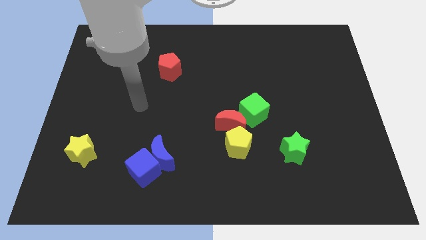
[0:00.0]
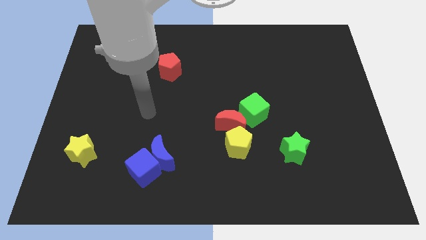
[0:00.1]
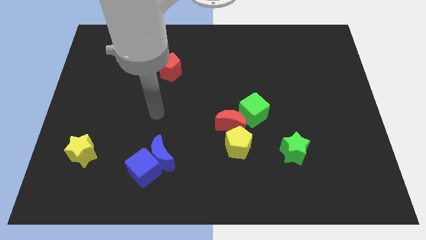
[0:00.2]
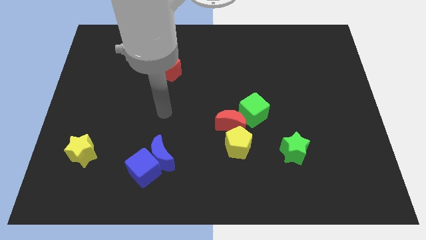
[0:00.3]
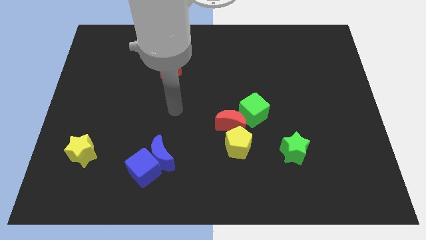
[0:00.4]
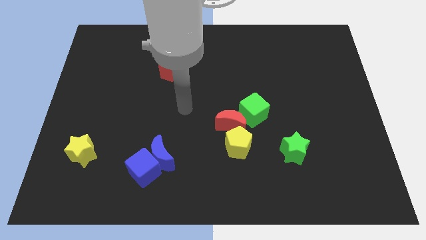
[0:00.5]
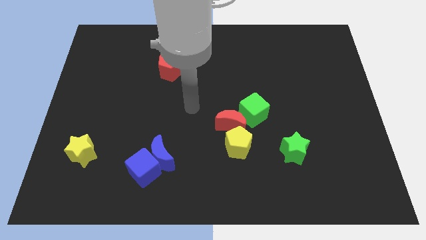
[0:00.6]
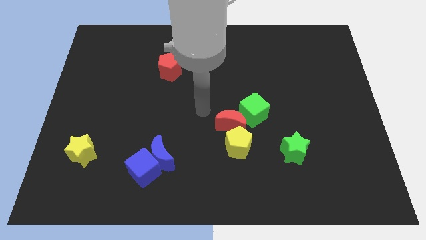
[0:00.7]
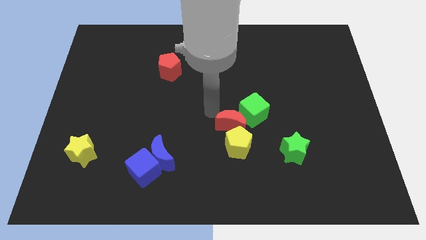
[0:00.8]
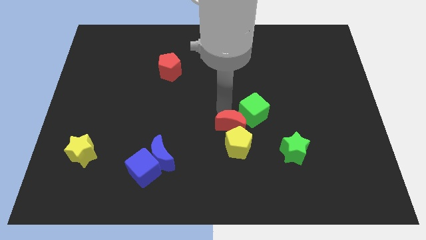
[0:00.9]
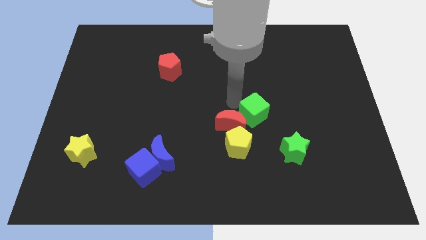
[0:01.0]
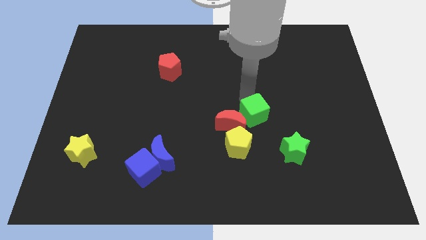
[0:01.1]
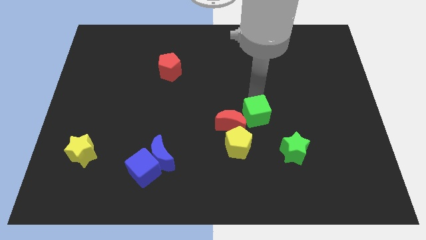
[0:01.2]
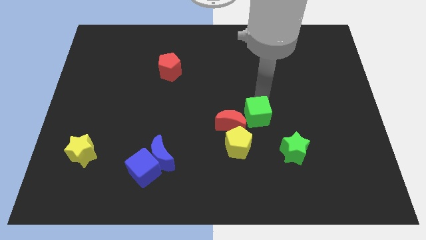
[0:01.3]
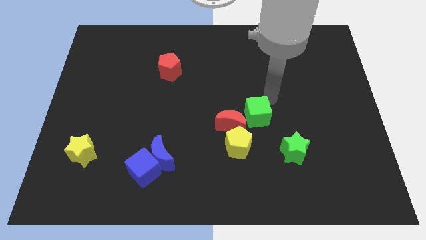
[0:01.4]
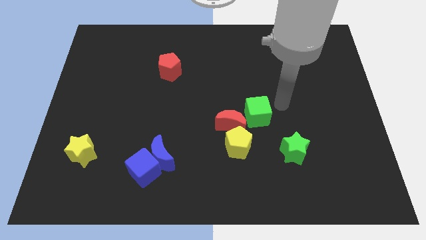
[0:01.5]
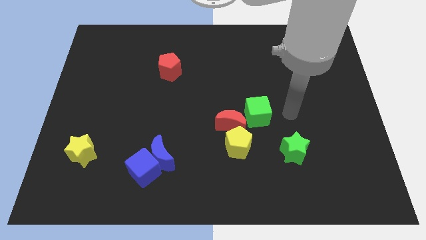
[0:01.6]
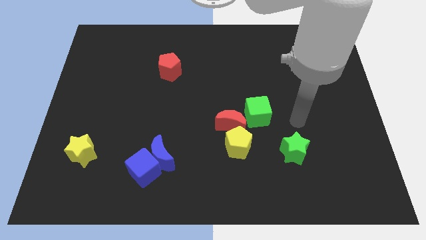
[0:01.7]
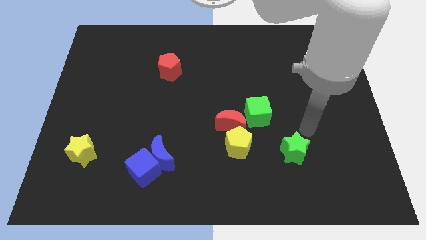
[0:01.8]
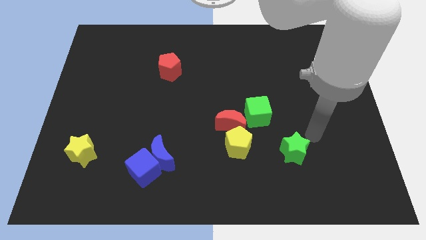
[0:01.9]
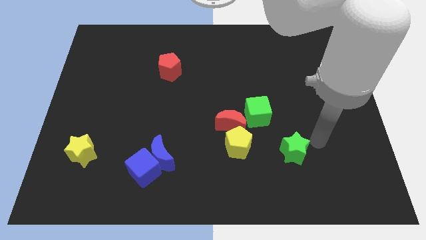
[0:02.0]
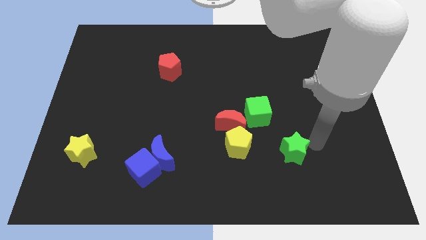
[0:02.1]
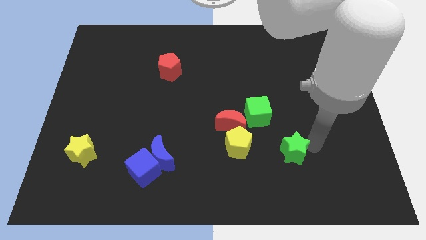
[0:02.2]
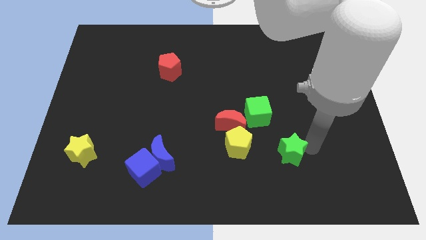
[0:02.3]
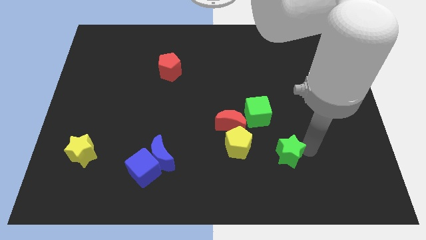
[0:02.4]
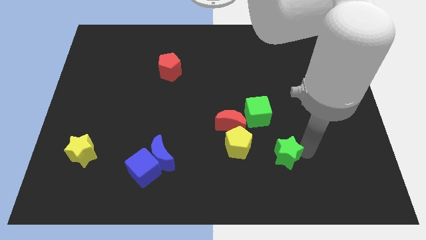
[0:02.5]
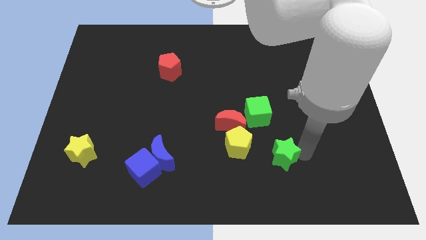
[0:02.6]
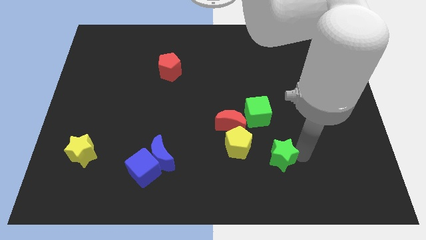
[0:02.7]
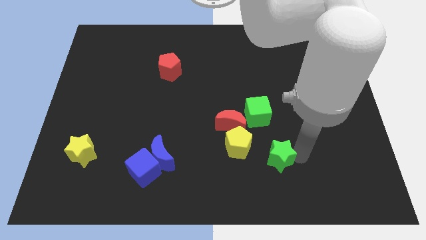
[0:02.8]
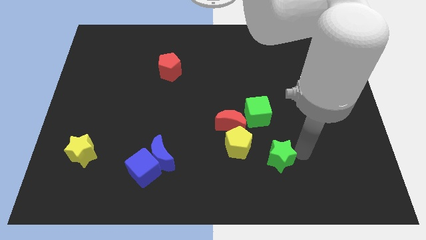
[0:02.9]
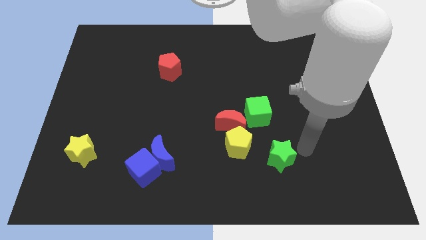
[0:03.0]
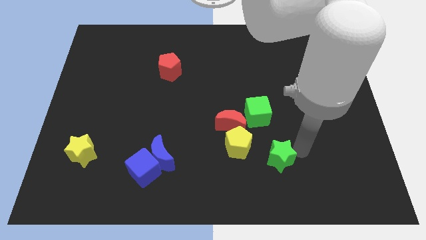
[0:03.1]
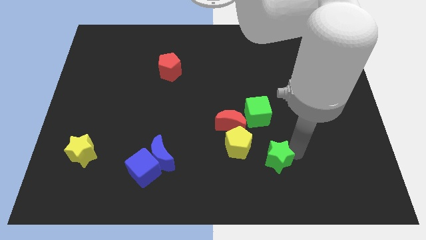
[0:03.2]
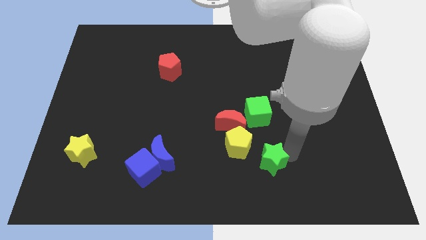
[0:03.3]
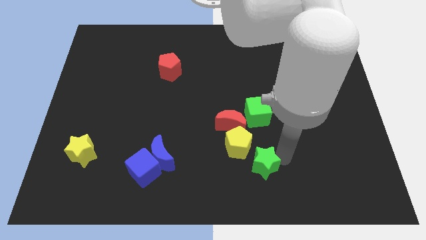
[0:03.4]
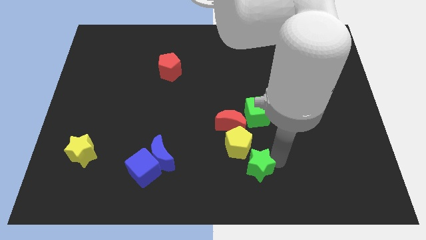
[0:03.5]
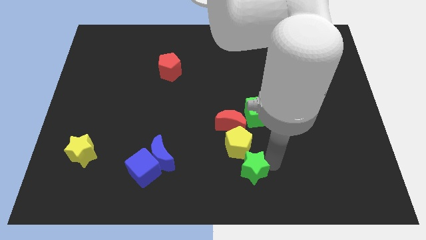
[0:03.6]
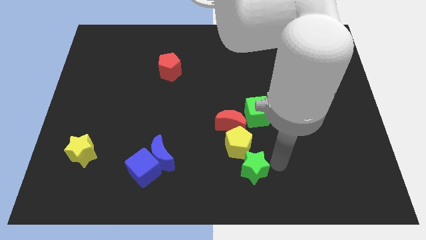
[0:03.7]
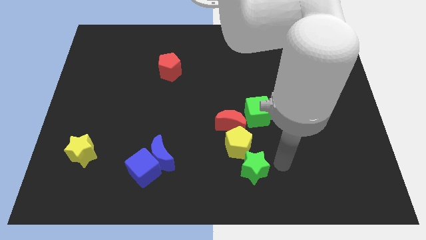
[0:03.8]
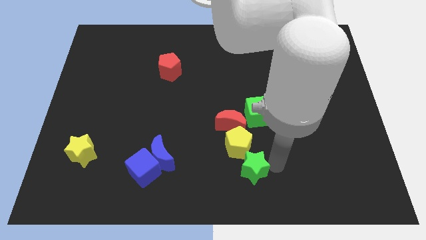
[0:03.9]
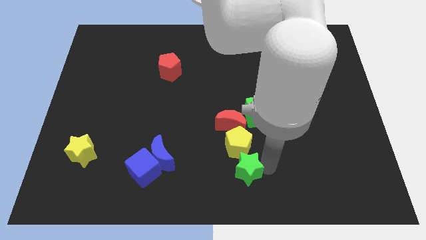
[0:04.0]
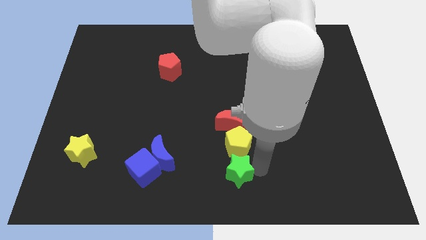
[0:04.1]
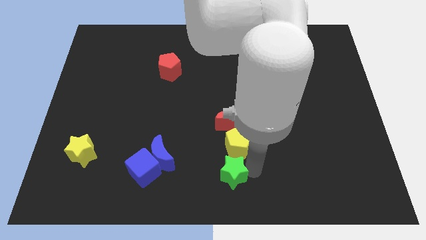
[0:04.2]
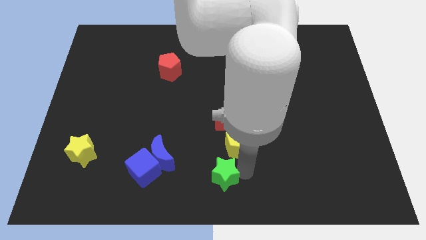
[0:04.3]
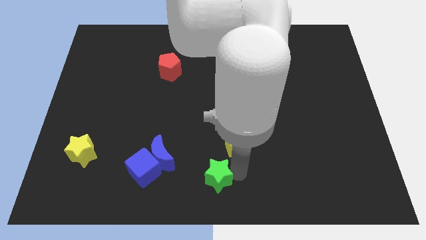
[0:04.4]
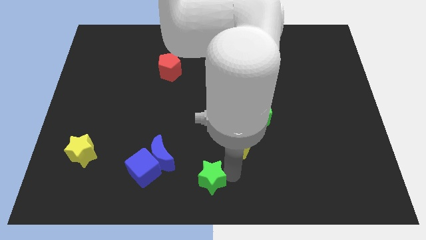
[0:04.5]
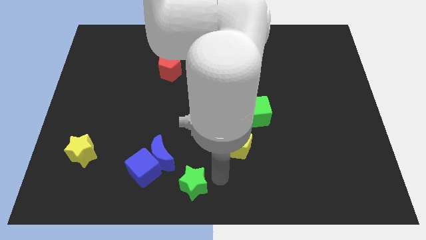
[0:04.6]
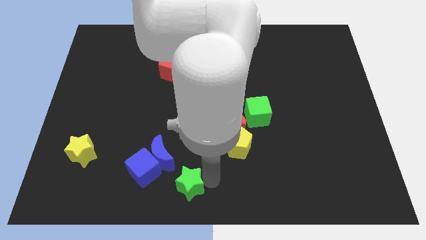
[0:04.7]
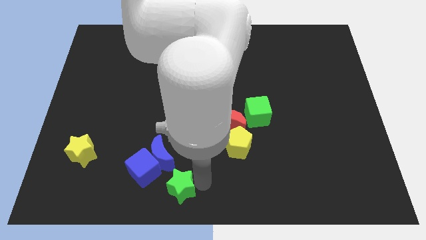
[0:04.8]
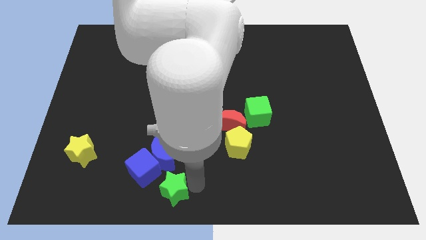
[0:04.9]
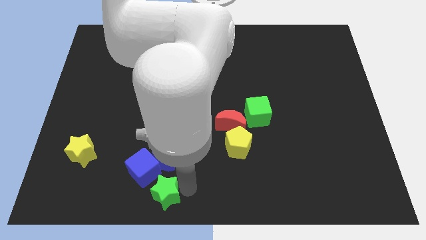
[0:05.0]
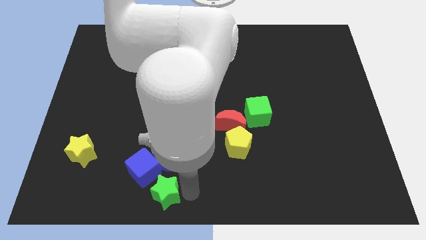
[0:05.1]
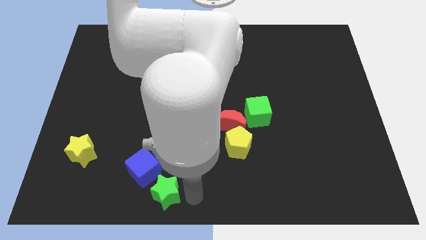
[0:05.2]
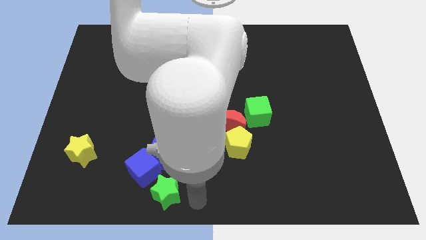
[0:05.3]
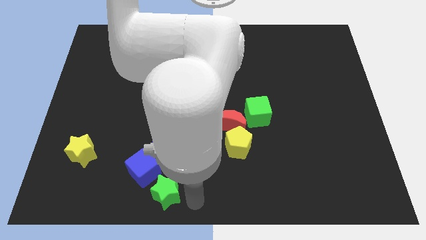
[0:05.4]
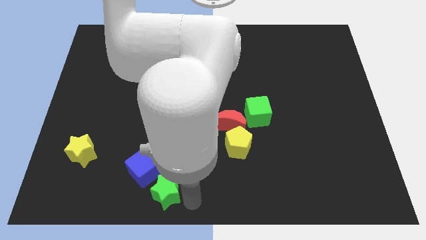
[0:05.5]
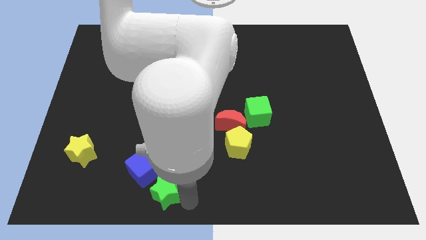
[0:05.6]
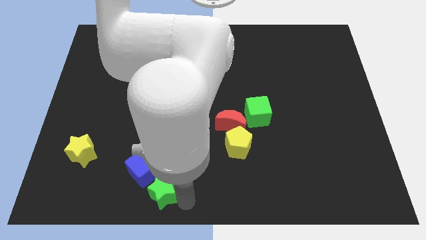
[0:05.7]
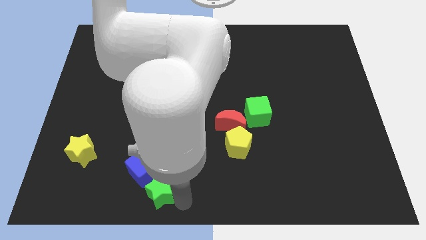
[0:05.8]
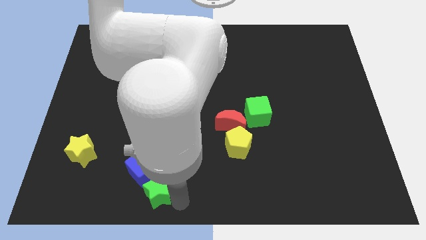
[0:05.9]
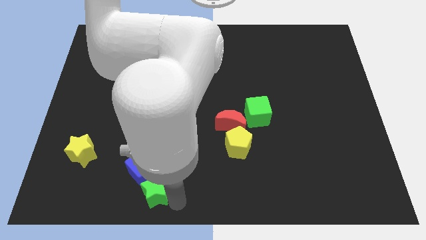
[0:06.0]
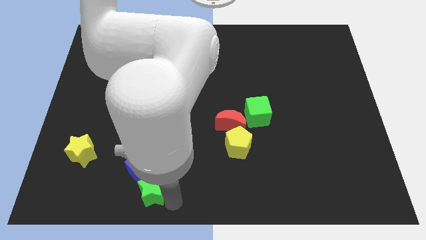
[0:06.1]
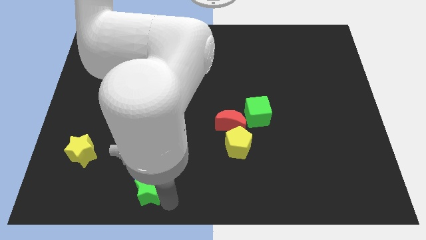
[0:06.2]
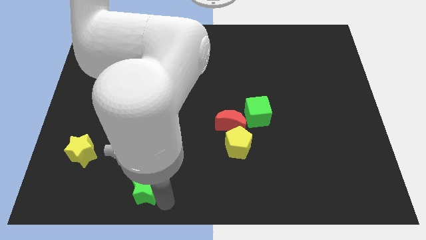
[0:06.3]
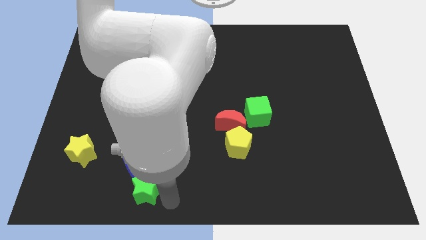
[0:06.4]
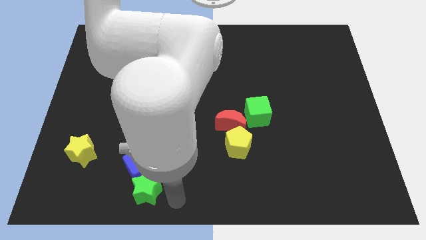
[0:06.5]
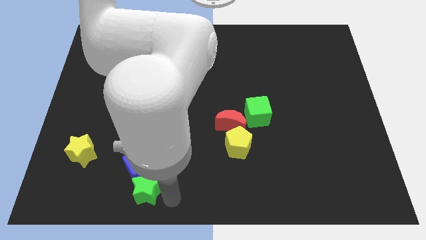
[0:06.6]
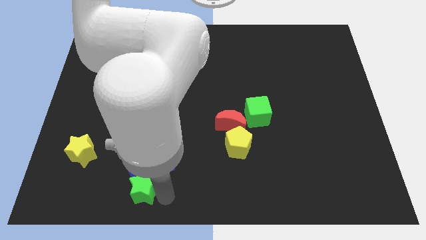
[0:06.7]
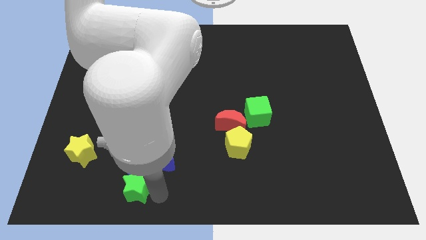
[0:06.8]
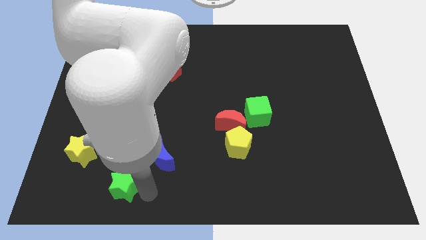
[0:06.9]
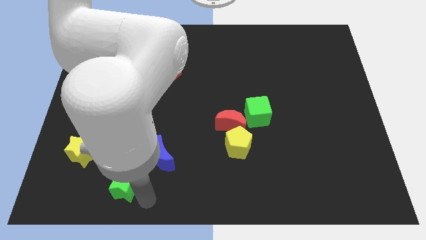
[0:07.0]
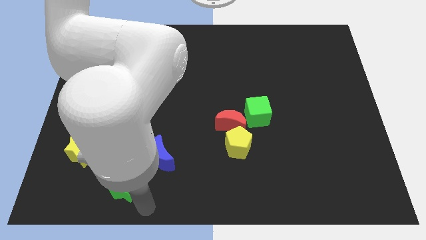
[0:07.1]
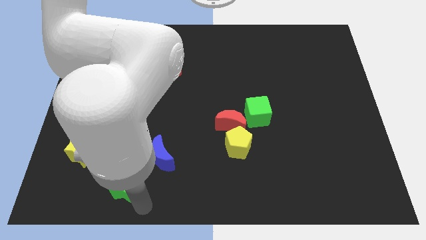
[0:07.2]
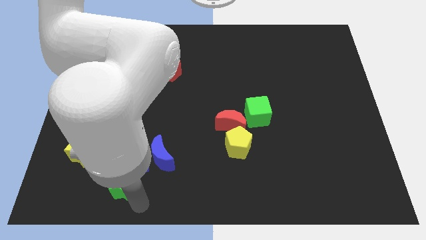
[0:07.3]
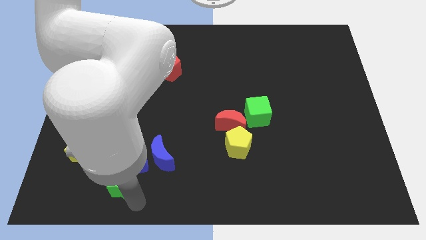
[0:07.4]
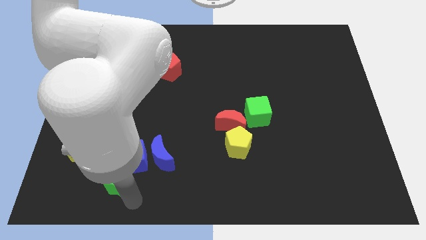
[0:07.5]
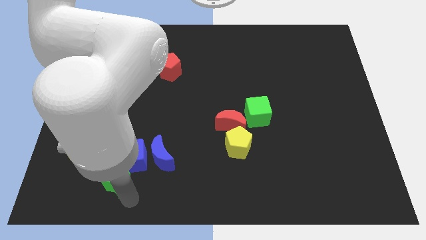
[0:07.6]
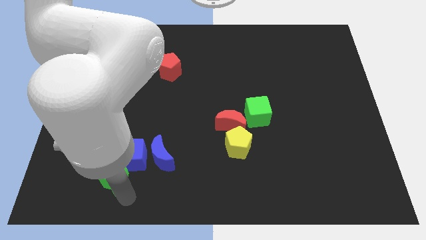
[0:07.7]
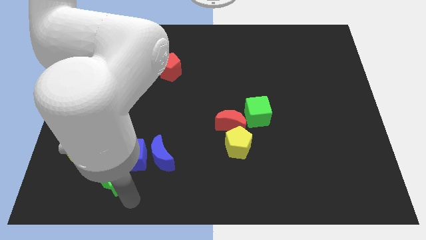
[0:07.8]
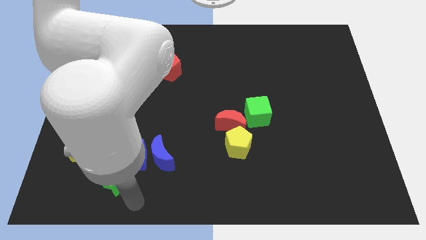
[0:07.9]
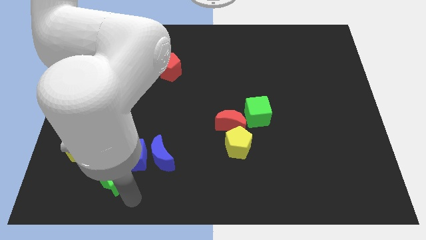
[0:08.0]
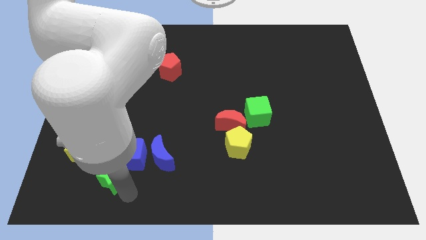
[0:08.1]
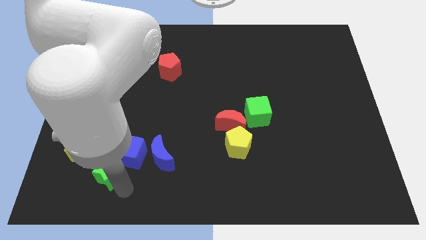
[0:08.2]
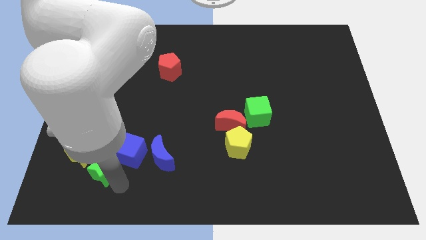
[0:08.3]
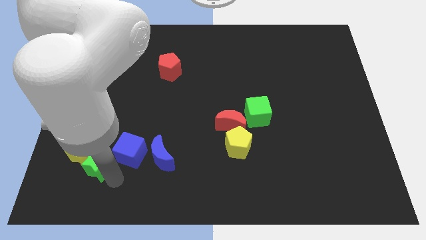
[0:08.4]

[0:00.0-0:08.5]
move the green star close to the yellow star
